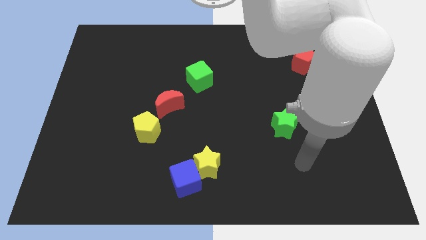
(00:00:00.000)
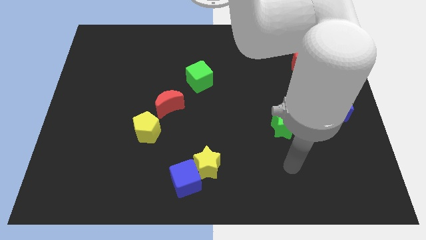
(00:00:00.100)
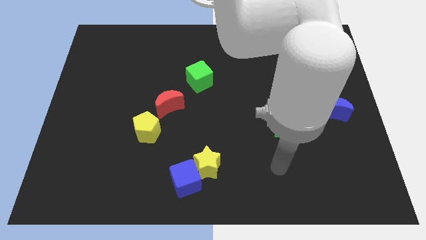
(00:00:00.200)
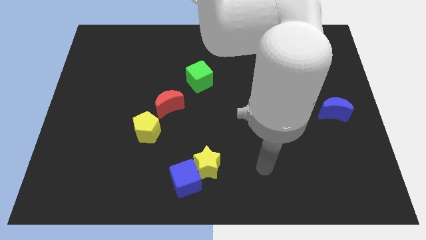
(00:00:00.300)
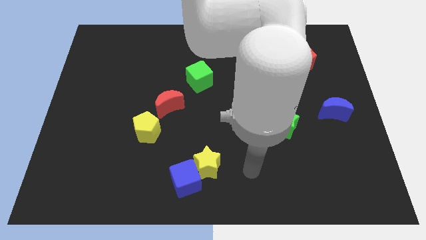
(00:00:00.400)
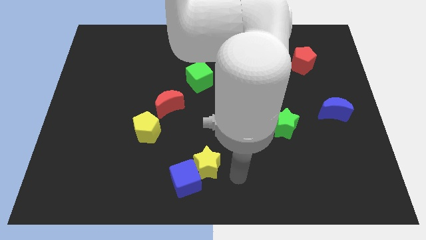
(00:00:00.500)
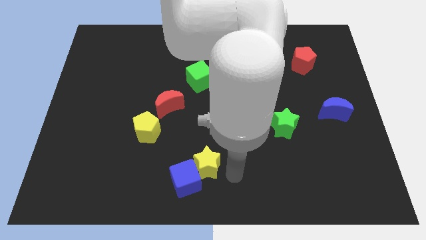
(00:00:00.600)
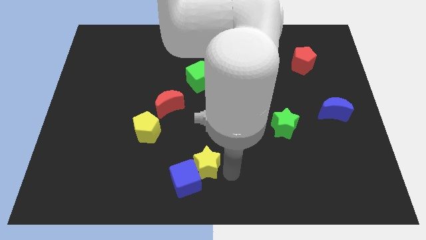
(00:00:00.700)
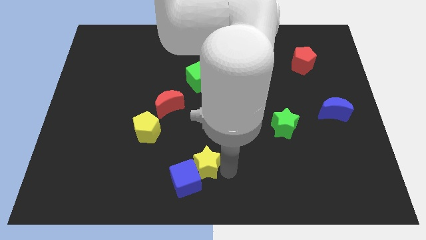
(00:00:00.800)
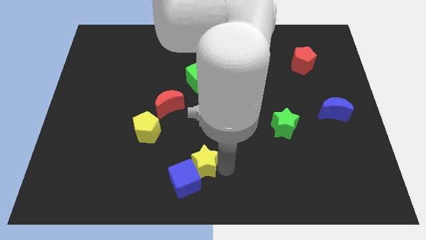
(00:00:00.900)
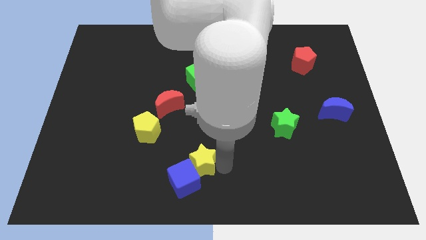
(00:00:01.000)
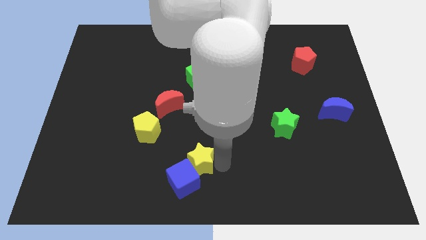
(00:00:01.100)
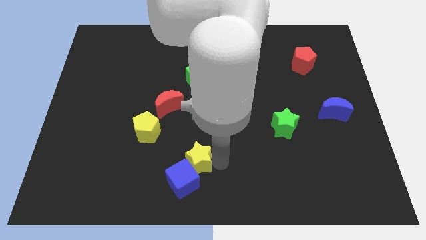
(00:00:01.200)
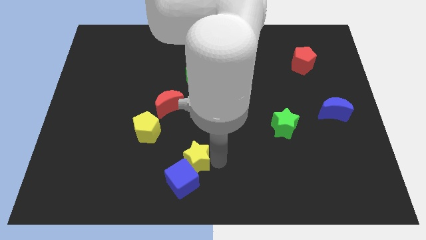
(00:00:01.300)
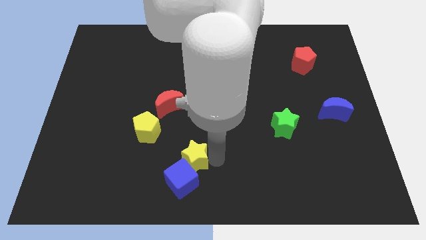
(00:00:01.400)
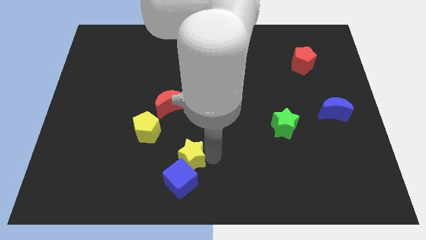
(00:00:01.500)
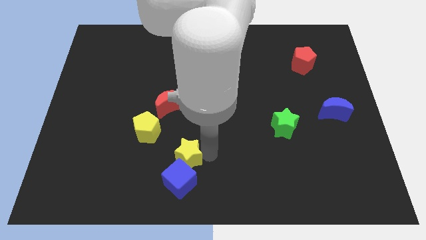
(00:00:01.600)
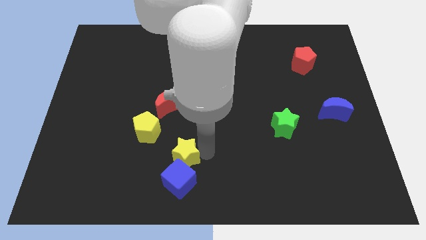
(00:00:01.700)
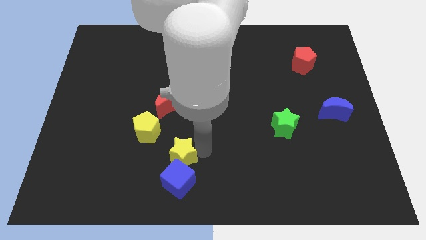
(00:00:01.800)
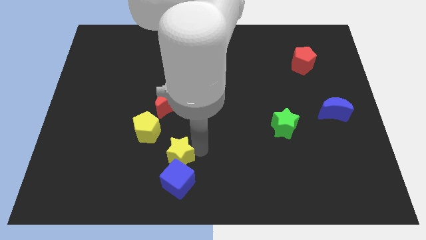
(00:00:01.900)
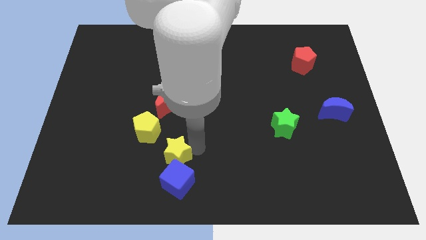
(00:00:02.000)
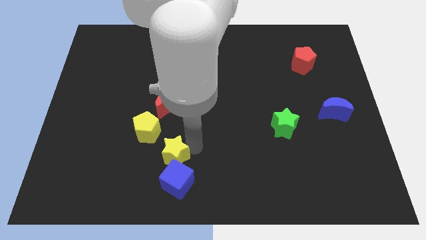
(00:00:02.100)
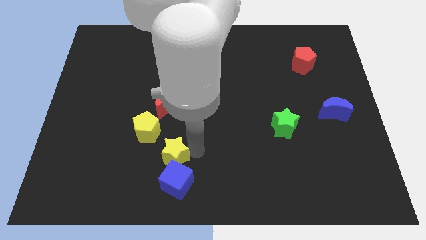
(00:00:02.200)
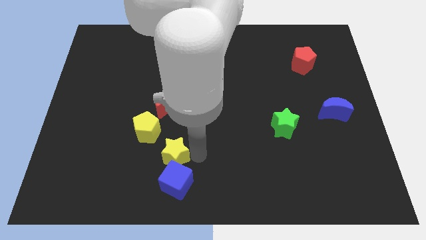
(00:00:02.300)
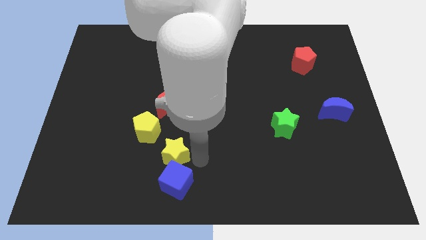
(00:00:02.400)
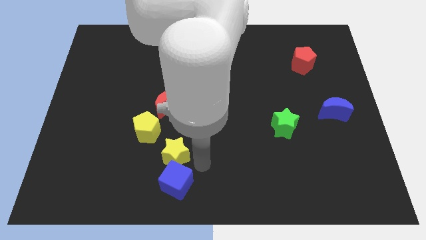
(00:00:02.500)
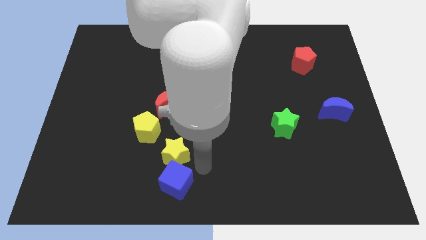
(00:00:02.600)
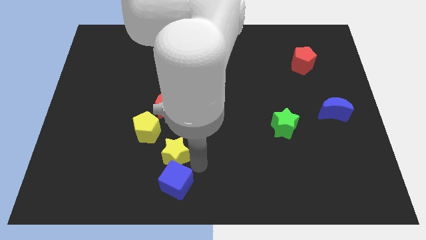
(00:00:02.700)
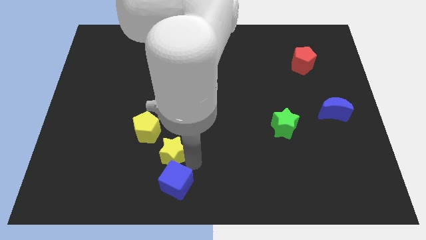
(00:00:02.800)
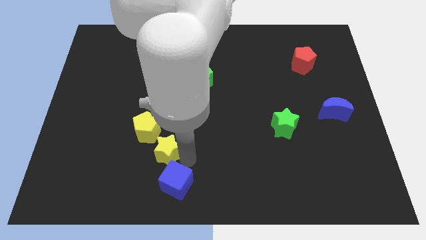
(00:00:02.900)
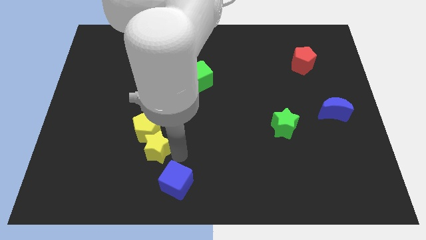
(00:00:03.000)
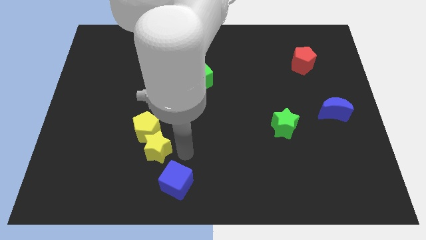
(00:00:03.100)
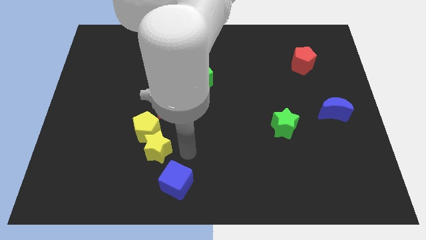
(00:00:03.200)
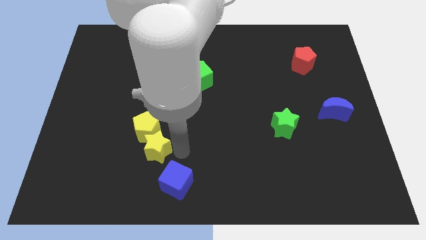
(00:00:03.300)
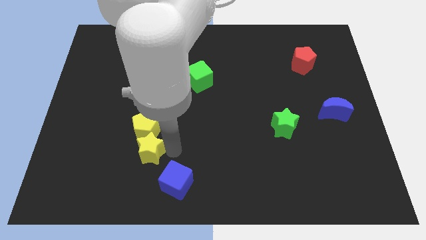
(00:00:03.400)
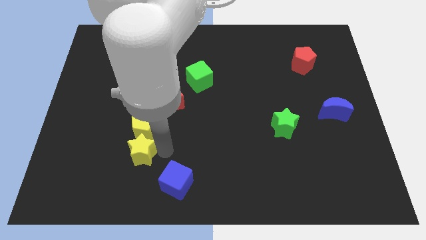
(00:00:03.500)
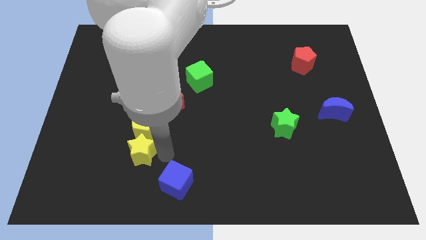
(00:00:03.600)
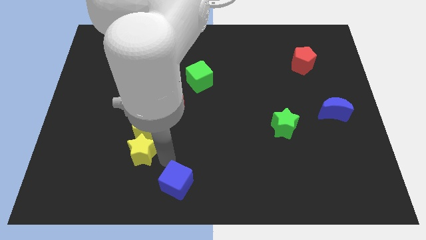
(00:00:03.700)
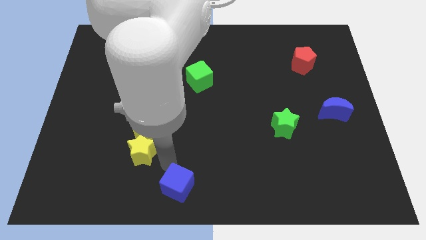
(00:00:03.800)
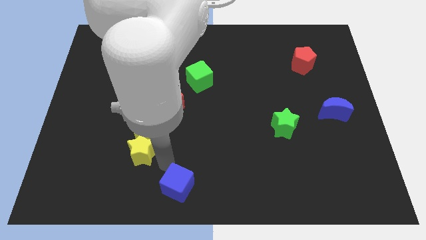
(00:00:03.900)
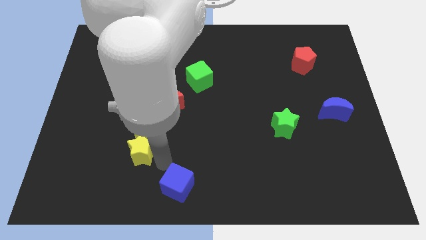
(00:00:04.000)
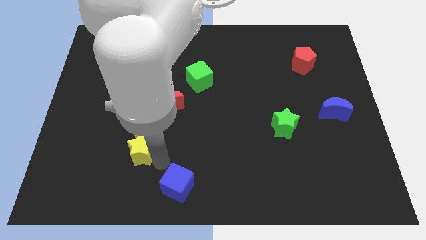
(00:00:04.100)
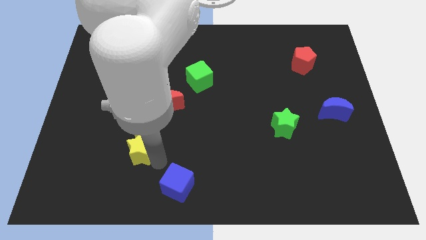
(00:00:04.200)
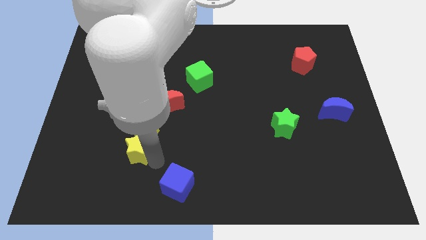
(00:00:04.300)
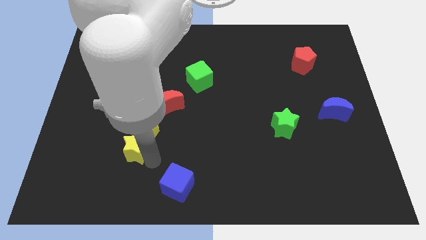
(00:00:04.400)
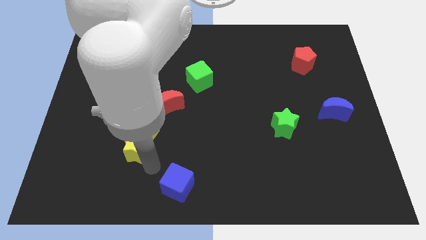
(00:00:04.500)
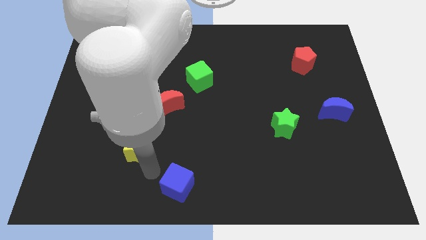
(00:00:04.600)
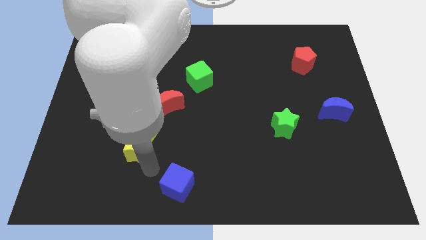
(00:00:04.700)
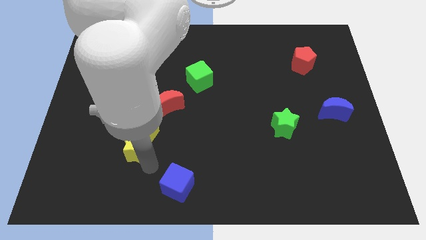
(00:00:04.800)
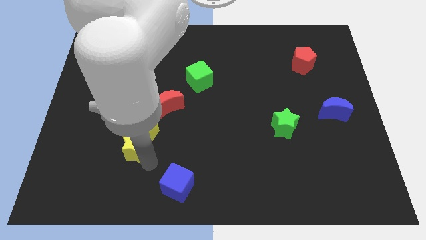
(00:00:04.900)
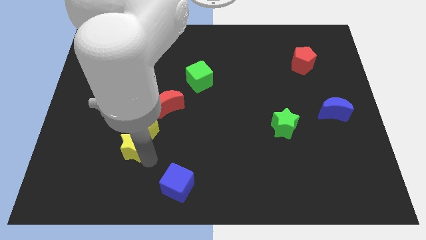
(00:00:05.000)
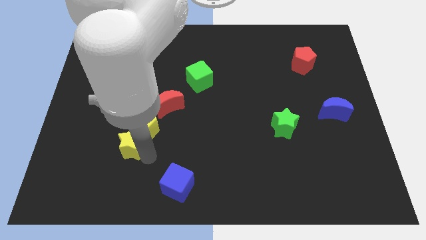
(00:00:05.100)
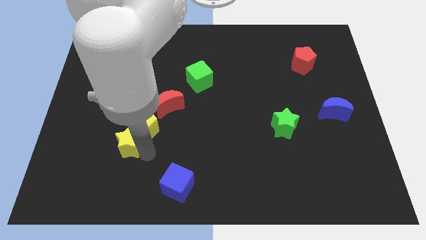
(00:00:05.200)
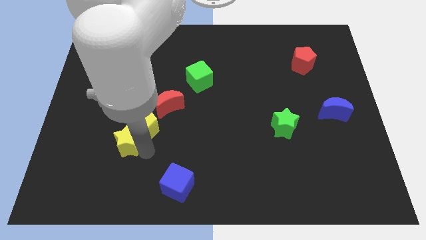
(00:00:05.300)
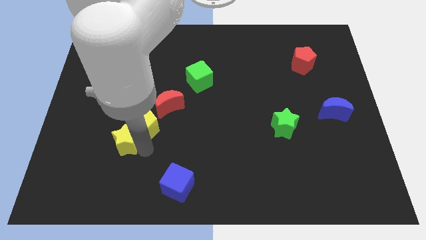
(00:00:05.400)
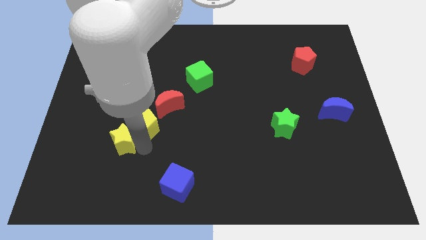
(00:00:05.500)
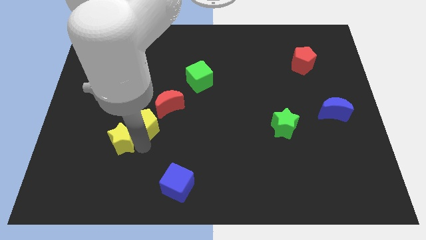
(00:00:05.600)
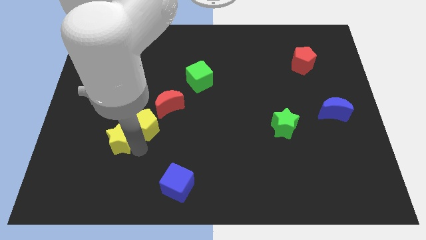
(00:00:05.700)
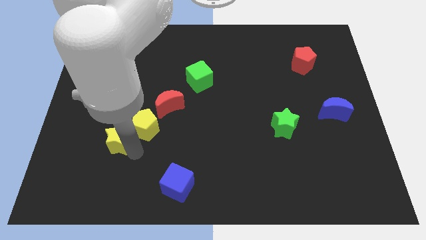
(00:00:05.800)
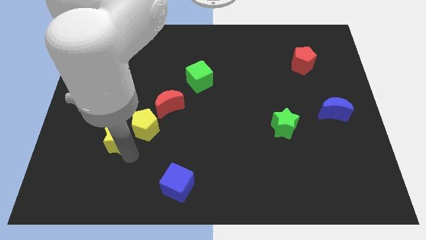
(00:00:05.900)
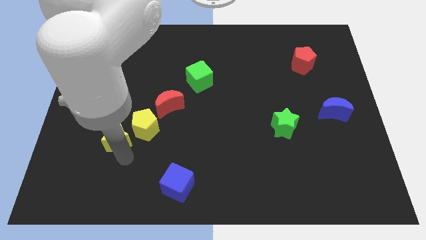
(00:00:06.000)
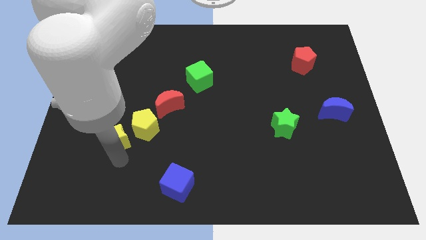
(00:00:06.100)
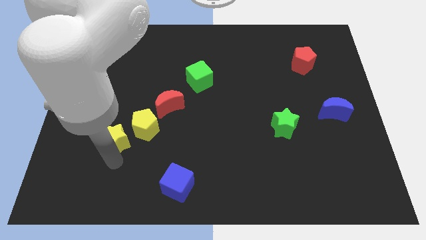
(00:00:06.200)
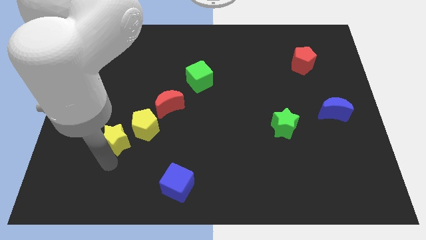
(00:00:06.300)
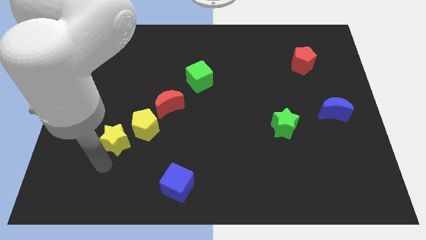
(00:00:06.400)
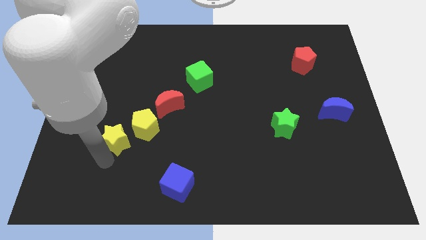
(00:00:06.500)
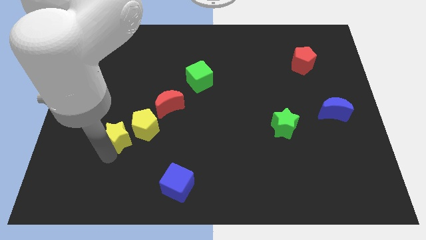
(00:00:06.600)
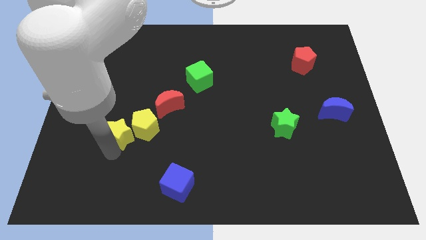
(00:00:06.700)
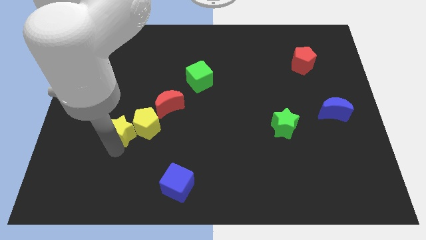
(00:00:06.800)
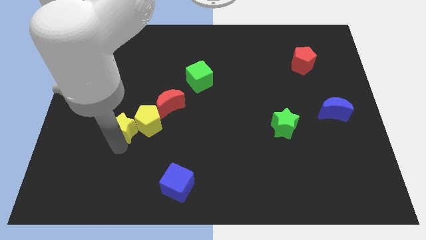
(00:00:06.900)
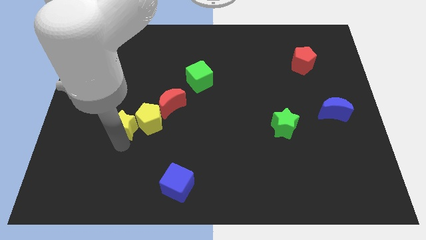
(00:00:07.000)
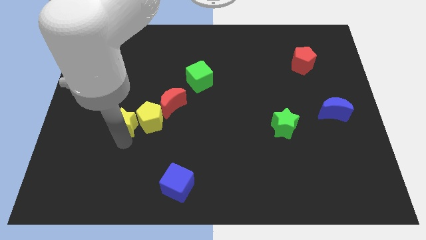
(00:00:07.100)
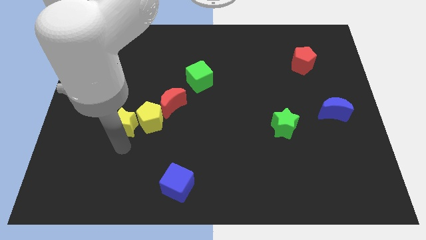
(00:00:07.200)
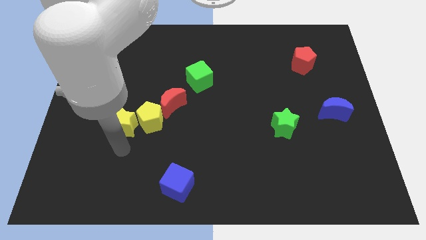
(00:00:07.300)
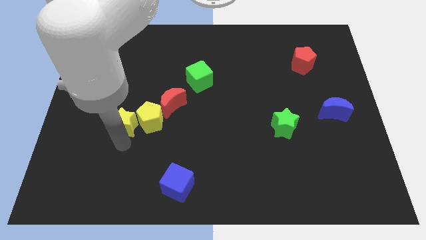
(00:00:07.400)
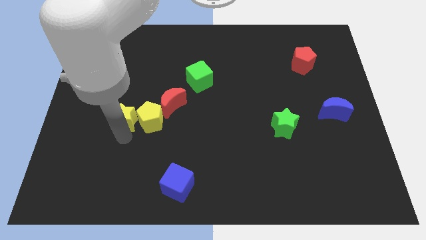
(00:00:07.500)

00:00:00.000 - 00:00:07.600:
put the yellow star left of the red moon
